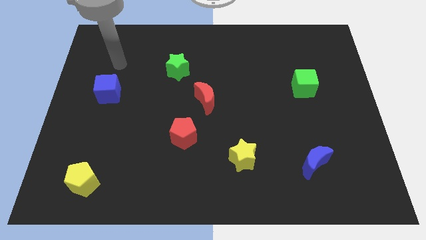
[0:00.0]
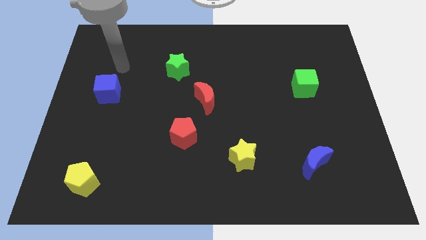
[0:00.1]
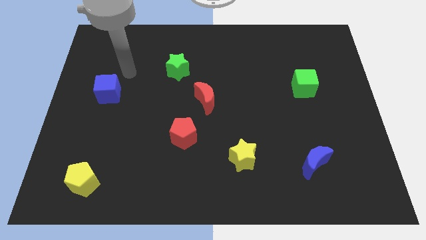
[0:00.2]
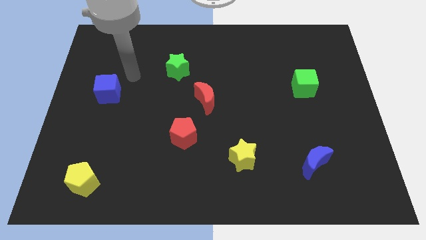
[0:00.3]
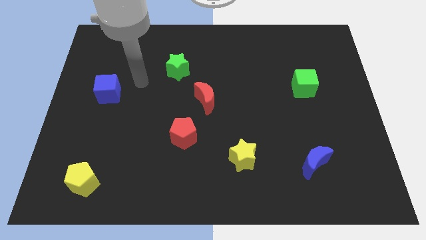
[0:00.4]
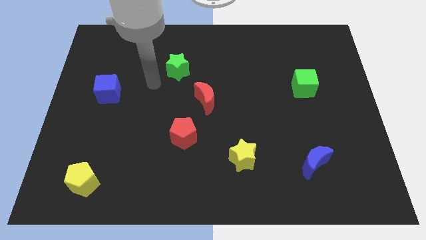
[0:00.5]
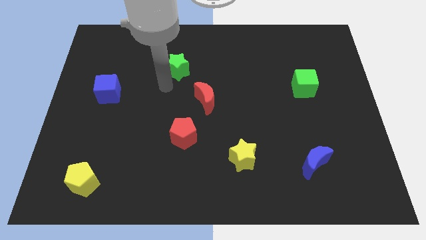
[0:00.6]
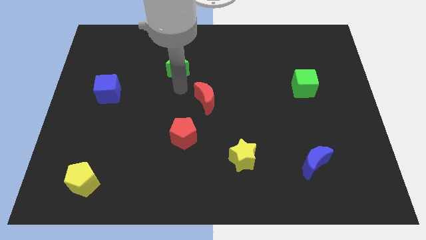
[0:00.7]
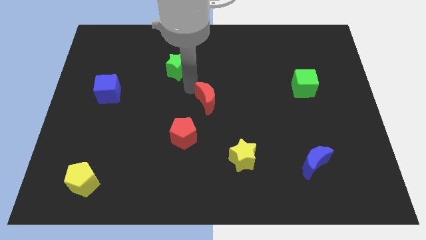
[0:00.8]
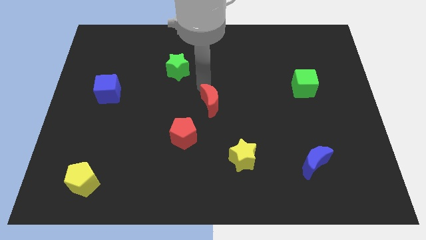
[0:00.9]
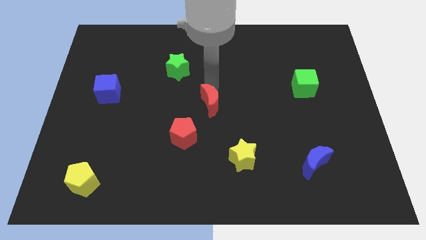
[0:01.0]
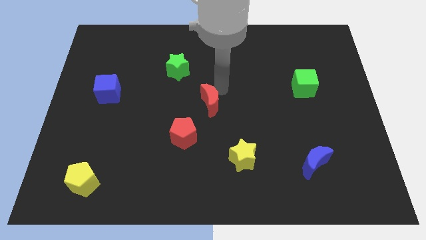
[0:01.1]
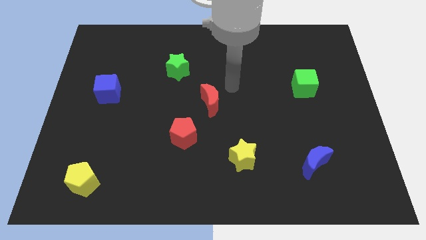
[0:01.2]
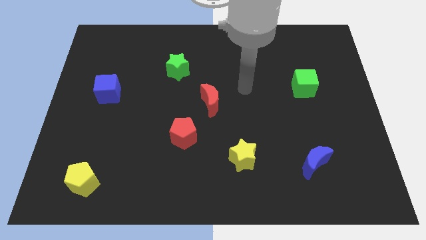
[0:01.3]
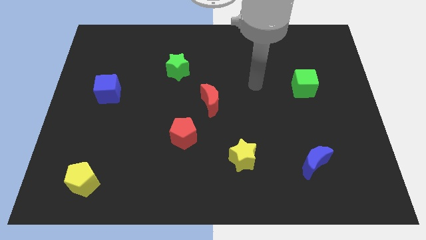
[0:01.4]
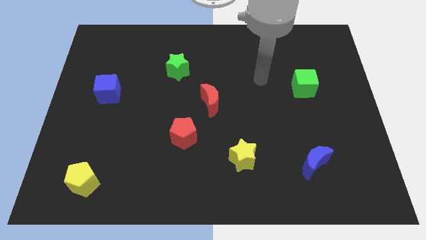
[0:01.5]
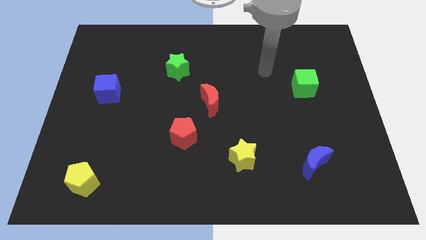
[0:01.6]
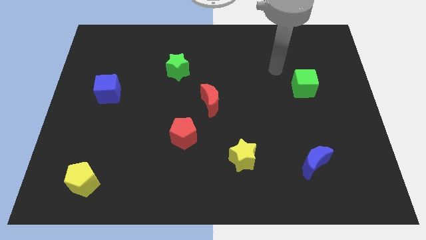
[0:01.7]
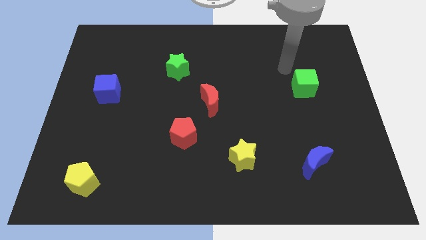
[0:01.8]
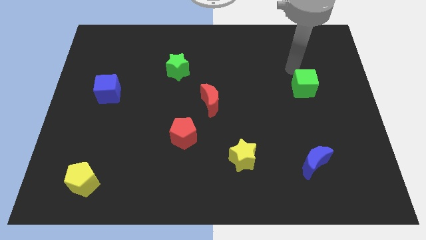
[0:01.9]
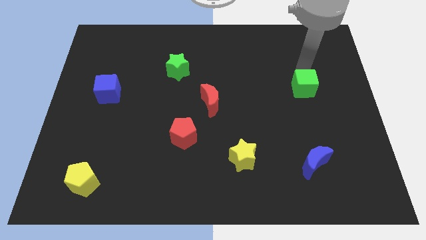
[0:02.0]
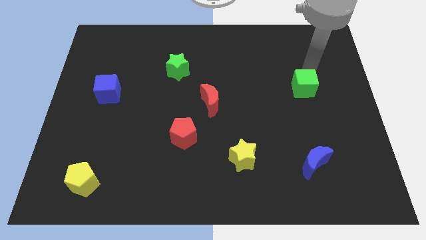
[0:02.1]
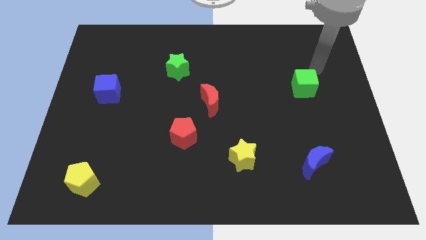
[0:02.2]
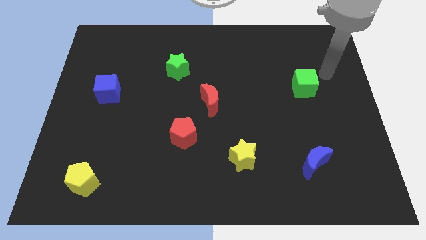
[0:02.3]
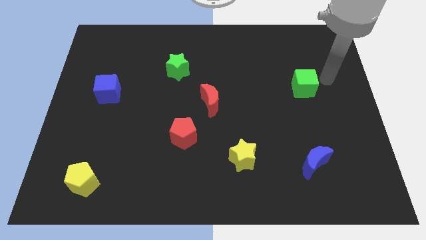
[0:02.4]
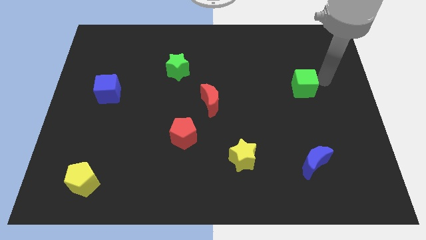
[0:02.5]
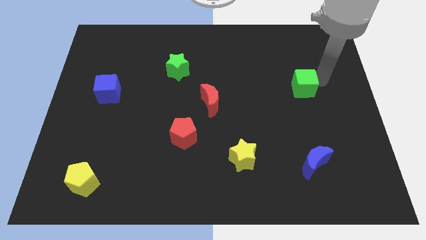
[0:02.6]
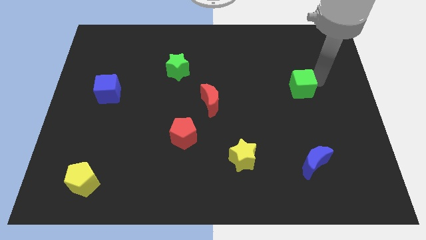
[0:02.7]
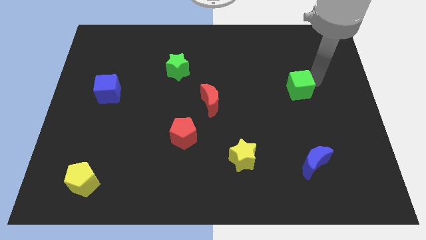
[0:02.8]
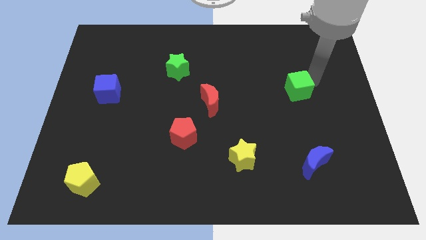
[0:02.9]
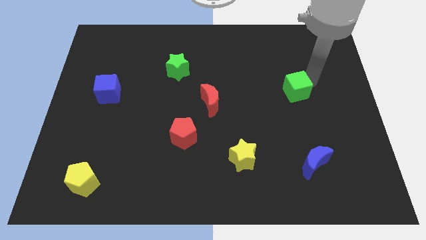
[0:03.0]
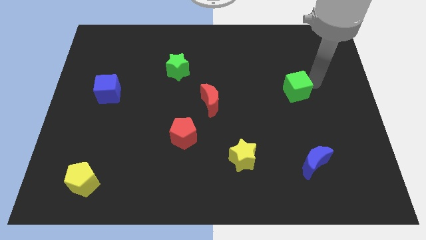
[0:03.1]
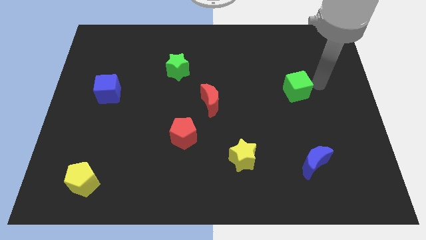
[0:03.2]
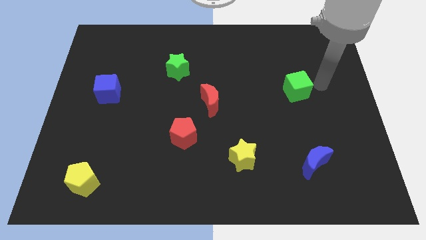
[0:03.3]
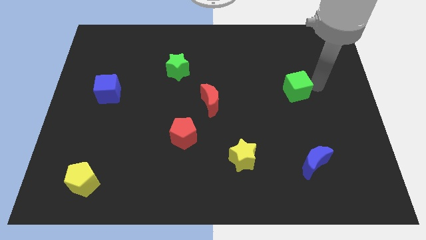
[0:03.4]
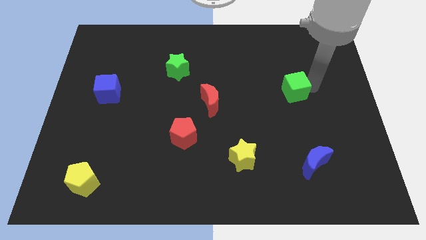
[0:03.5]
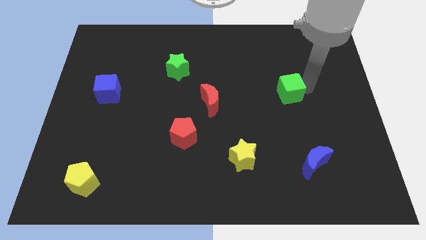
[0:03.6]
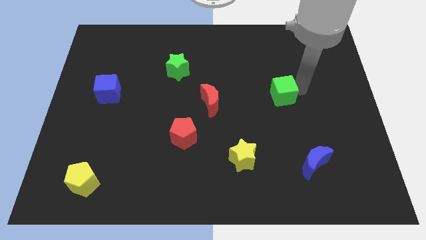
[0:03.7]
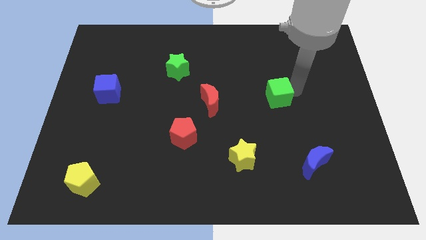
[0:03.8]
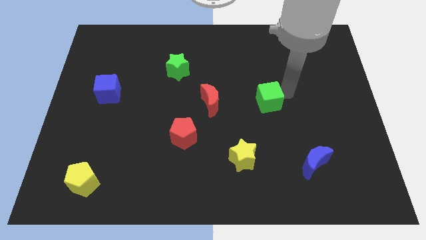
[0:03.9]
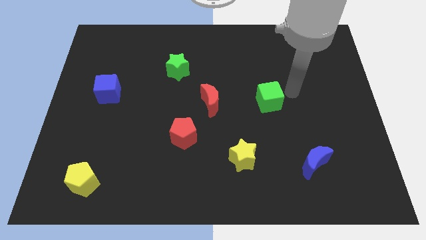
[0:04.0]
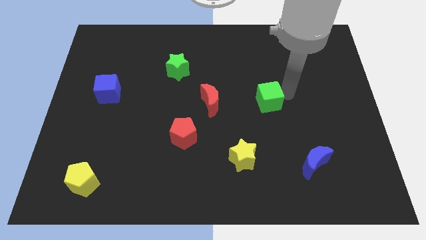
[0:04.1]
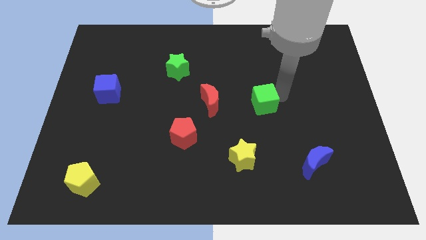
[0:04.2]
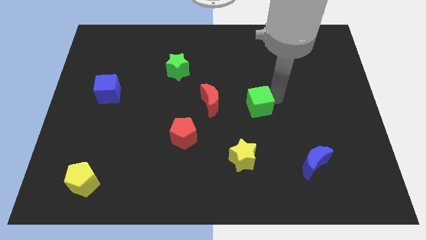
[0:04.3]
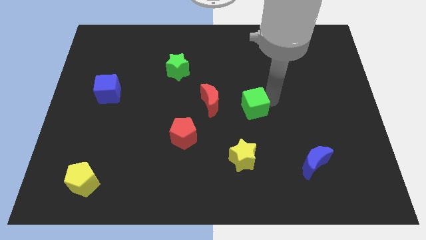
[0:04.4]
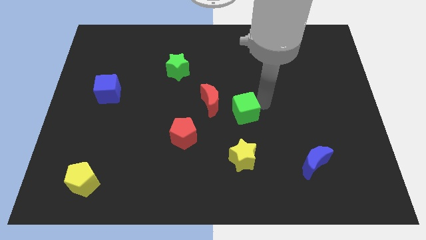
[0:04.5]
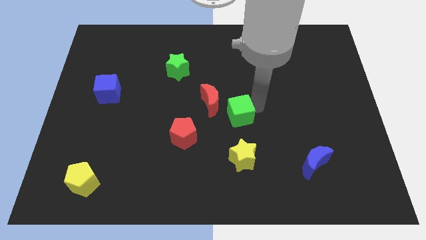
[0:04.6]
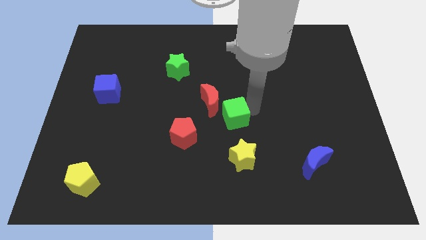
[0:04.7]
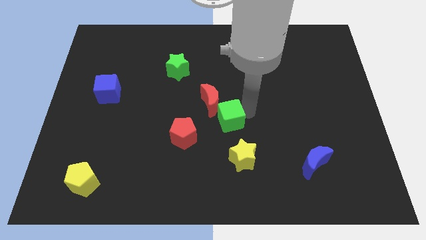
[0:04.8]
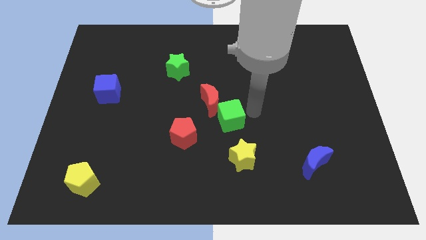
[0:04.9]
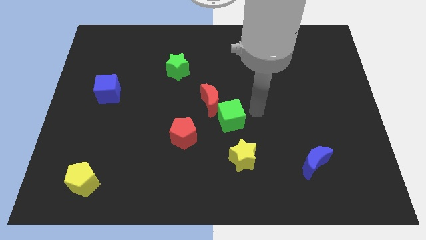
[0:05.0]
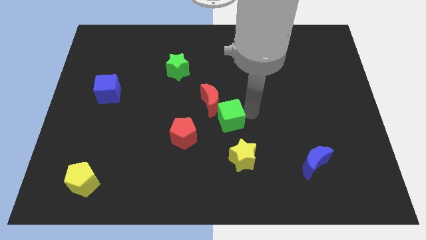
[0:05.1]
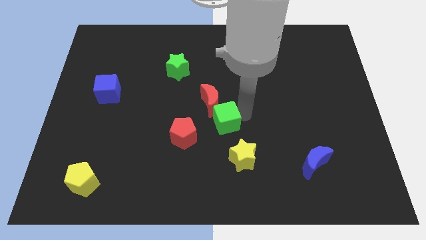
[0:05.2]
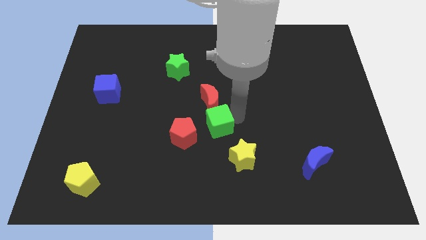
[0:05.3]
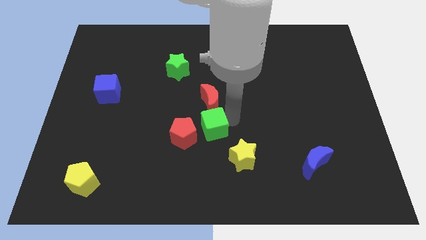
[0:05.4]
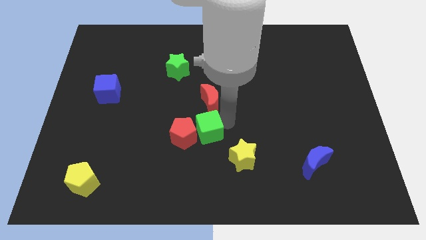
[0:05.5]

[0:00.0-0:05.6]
put the green cube towards the red pentagon

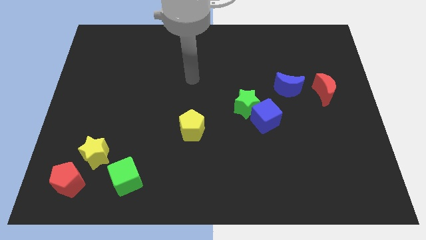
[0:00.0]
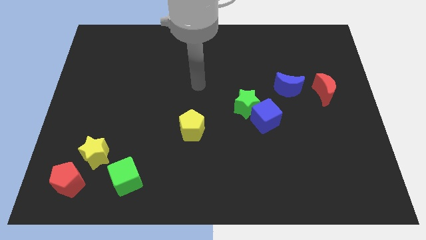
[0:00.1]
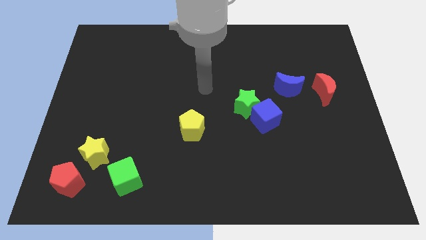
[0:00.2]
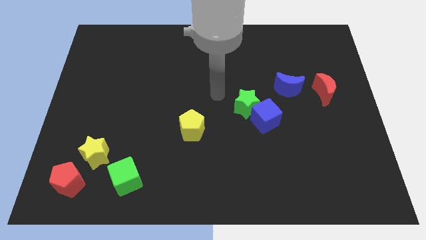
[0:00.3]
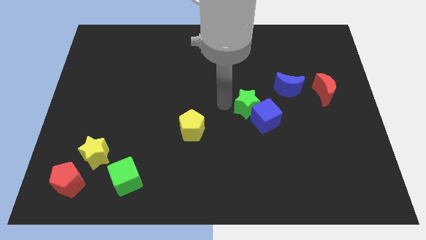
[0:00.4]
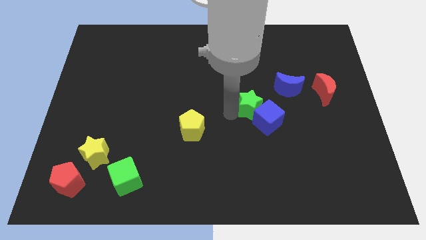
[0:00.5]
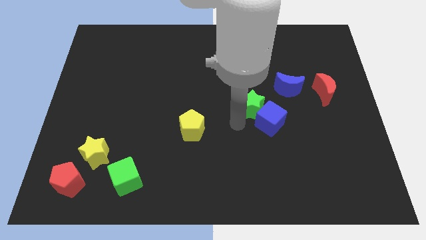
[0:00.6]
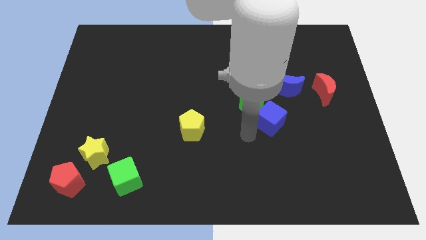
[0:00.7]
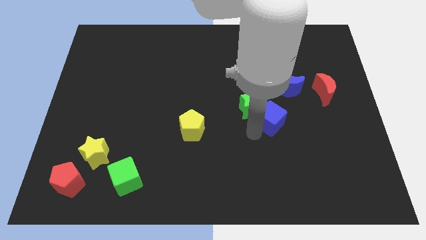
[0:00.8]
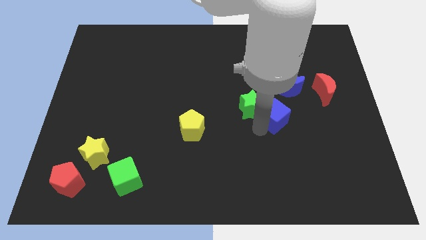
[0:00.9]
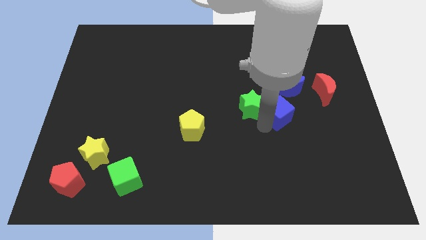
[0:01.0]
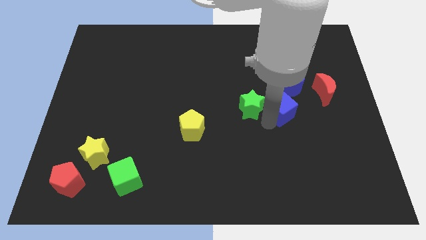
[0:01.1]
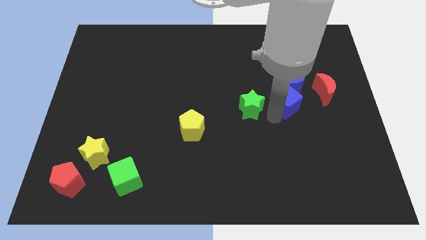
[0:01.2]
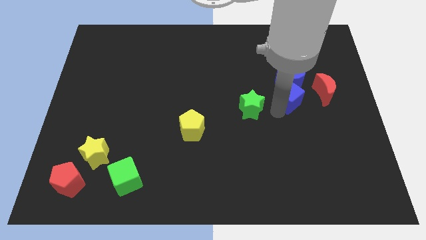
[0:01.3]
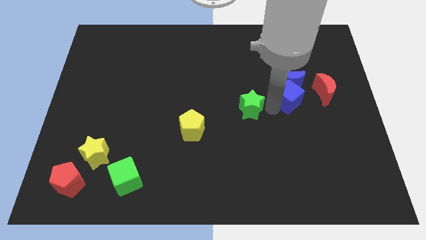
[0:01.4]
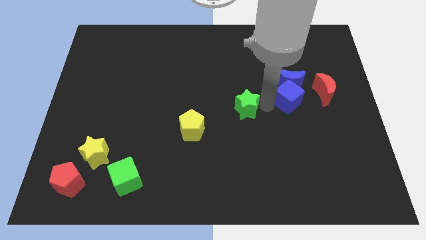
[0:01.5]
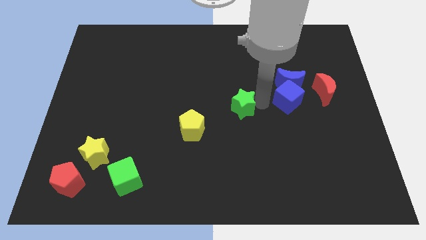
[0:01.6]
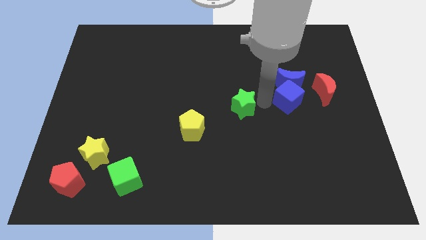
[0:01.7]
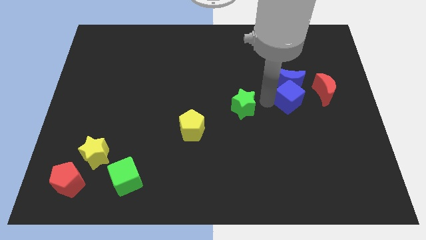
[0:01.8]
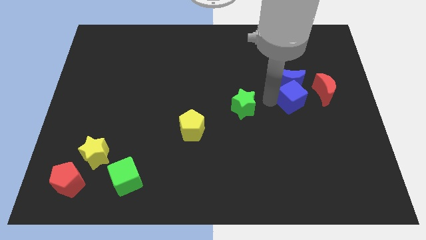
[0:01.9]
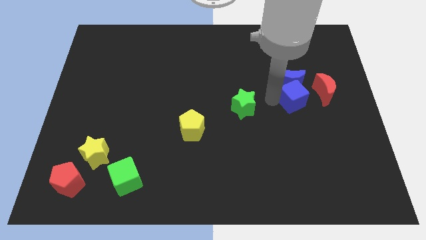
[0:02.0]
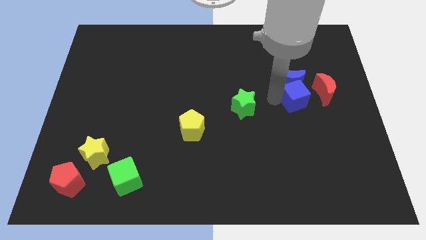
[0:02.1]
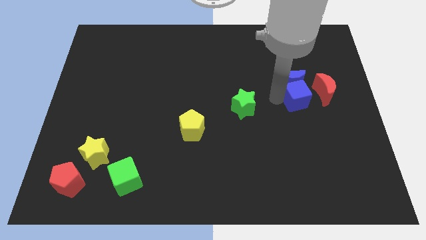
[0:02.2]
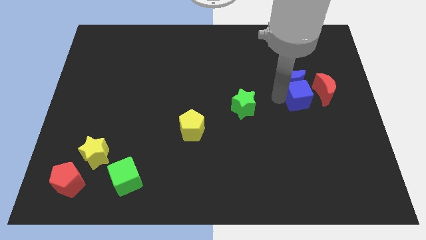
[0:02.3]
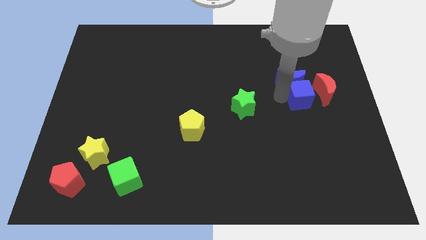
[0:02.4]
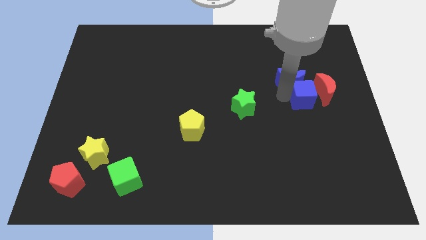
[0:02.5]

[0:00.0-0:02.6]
put the blue cube next to the red moon
